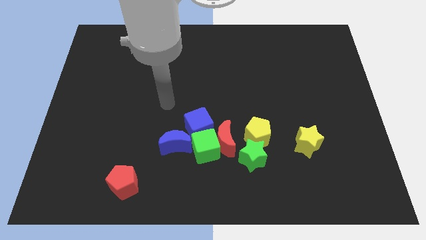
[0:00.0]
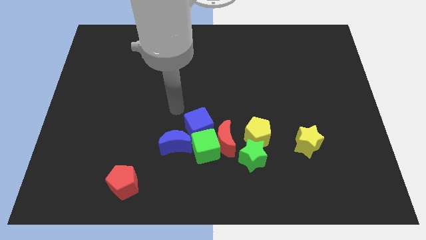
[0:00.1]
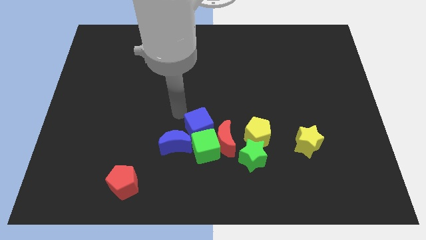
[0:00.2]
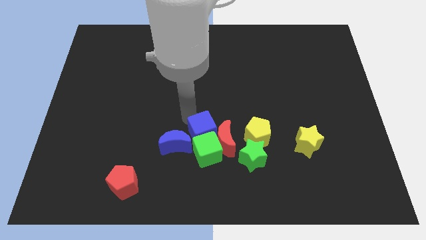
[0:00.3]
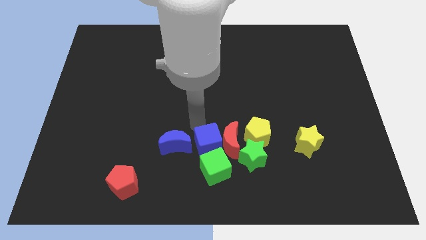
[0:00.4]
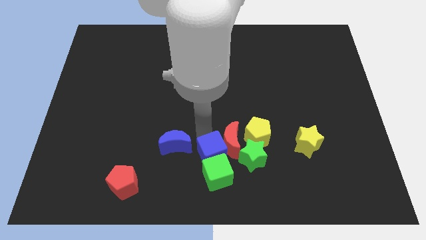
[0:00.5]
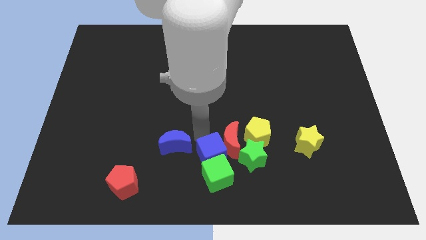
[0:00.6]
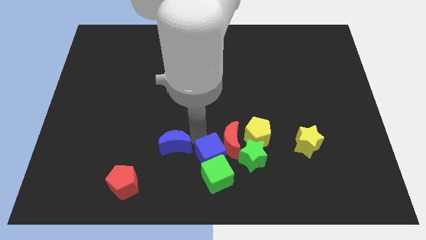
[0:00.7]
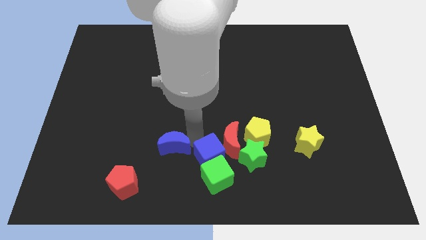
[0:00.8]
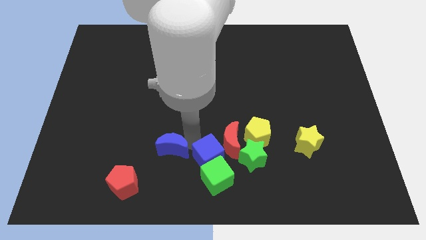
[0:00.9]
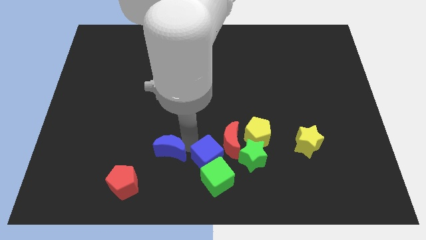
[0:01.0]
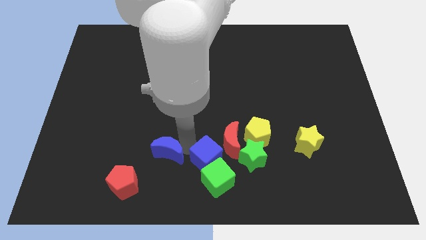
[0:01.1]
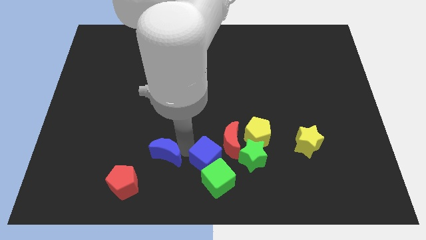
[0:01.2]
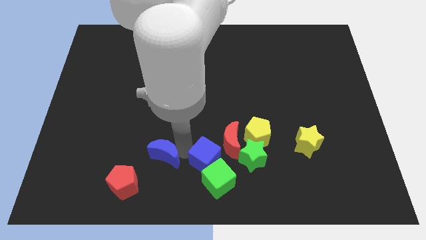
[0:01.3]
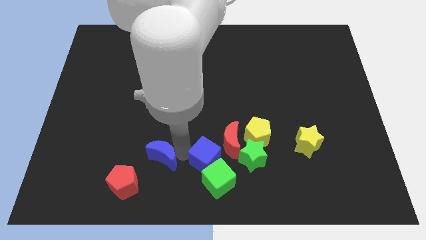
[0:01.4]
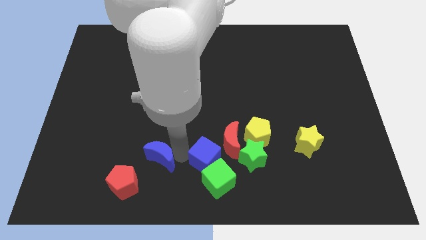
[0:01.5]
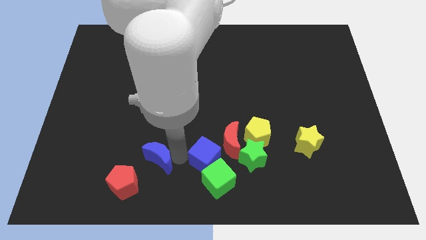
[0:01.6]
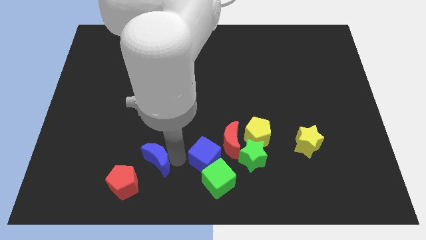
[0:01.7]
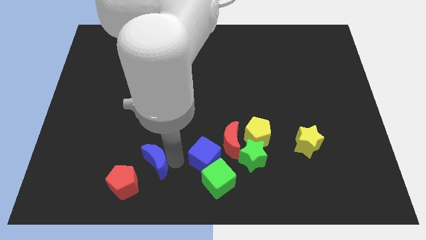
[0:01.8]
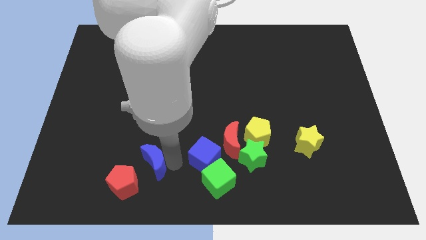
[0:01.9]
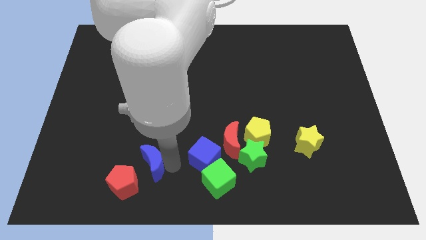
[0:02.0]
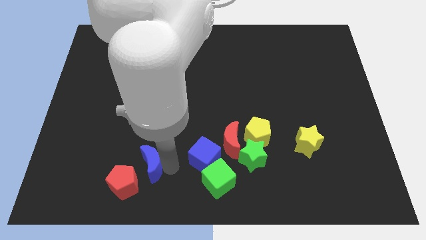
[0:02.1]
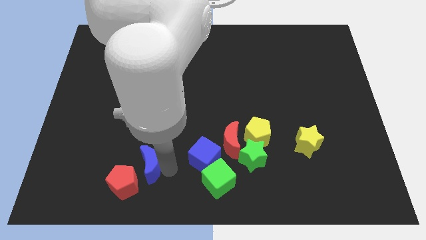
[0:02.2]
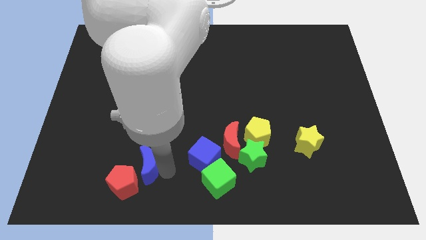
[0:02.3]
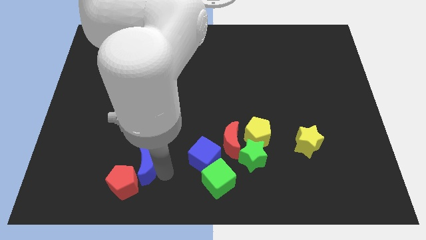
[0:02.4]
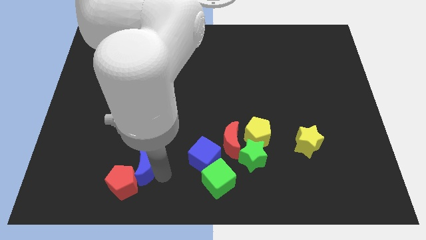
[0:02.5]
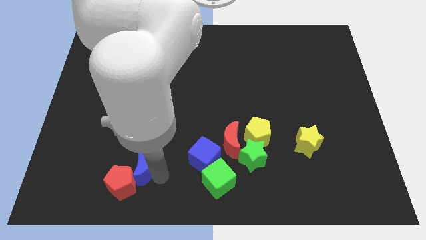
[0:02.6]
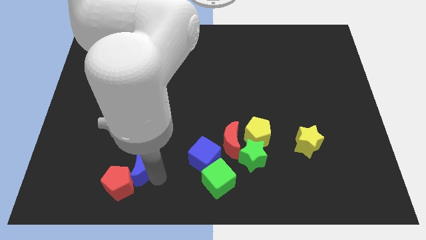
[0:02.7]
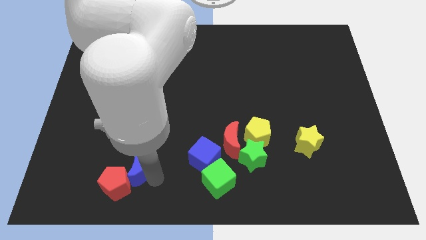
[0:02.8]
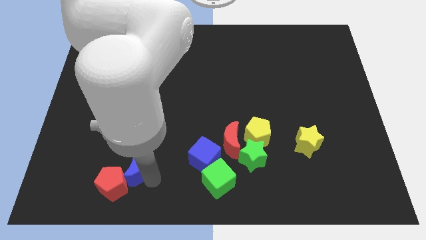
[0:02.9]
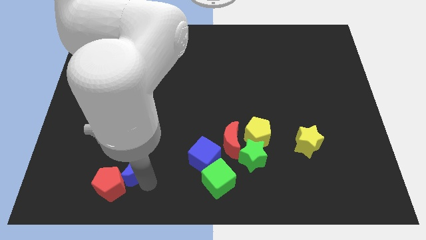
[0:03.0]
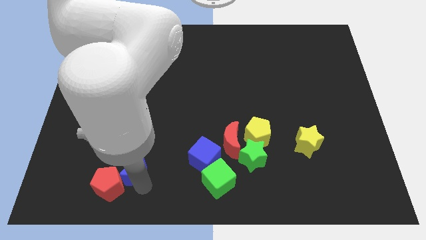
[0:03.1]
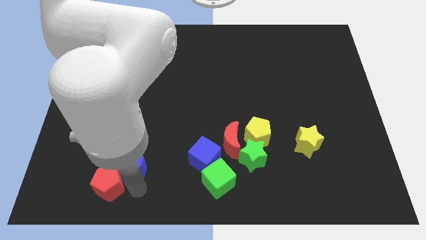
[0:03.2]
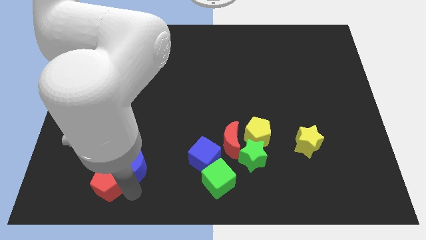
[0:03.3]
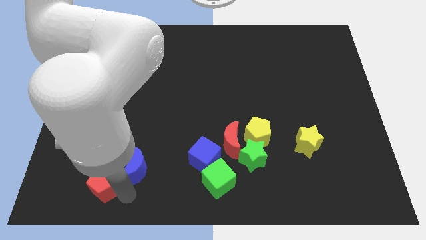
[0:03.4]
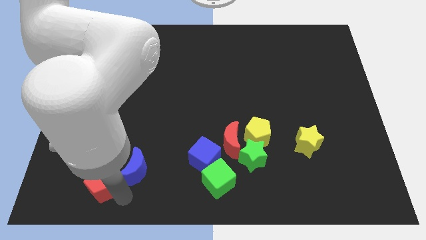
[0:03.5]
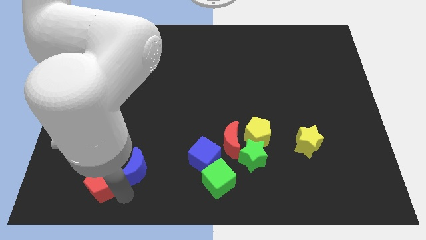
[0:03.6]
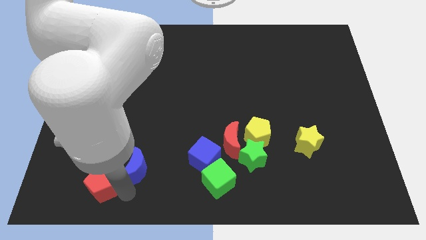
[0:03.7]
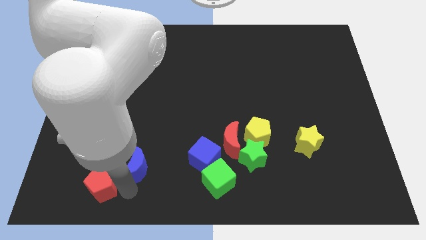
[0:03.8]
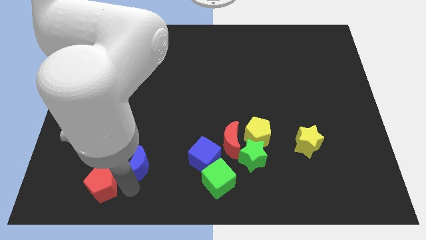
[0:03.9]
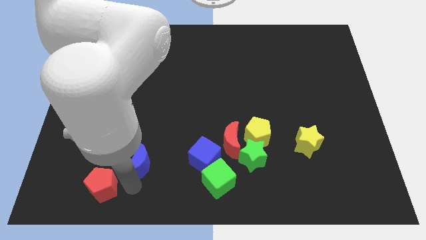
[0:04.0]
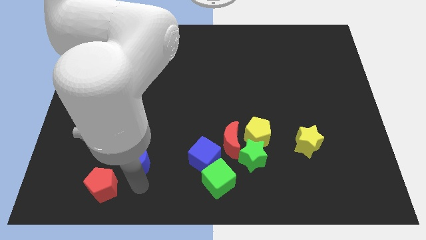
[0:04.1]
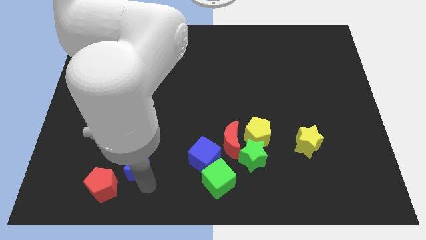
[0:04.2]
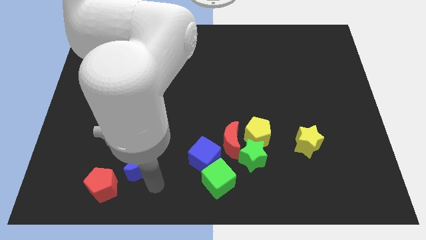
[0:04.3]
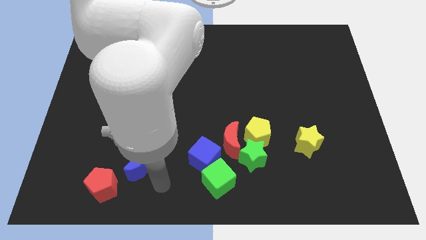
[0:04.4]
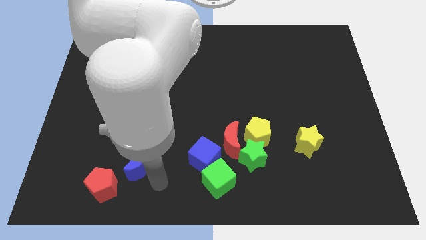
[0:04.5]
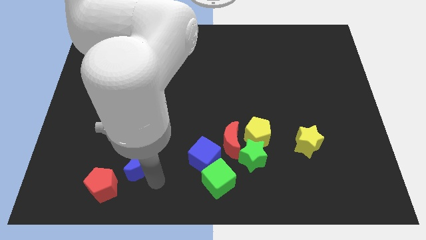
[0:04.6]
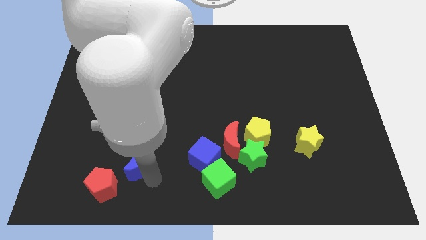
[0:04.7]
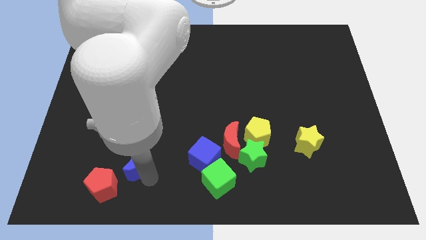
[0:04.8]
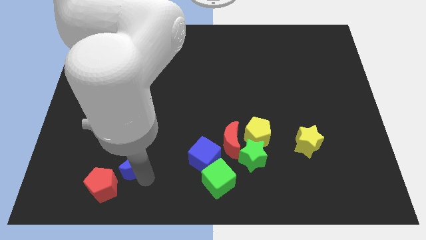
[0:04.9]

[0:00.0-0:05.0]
move the blue moon slightly left

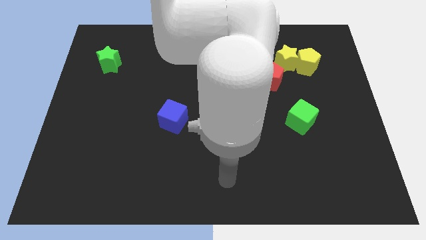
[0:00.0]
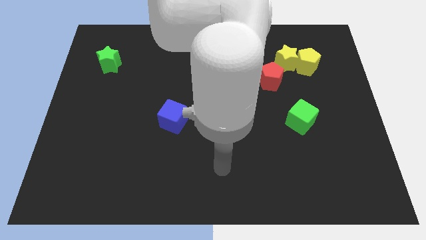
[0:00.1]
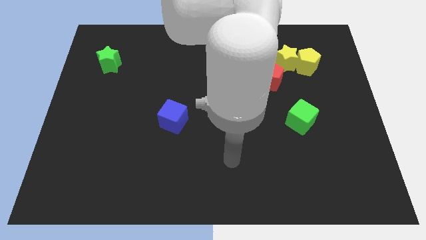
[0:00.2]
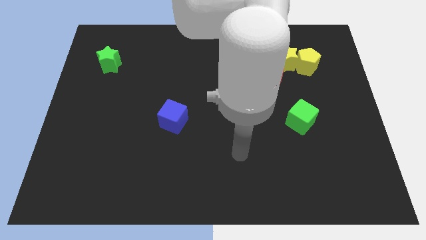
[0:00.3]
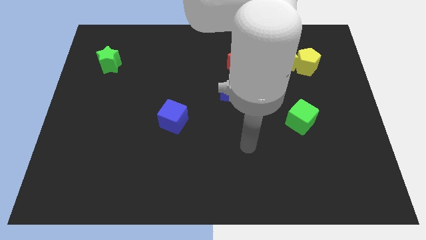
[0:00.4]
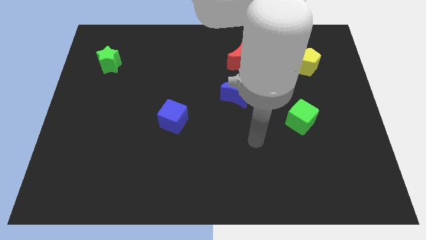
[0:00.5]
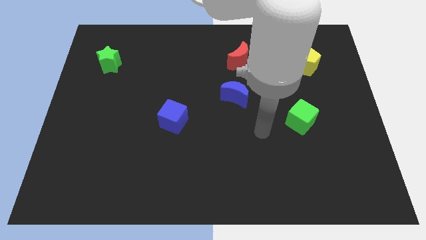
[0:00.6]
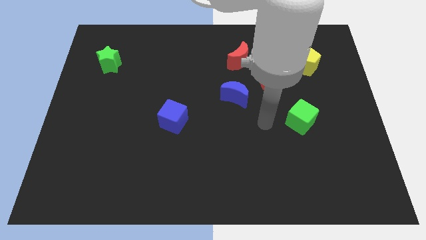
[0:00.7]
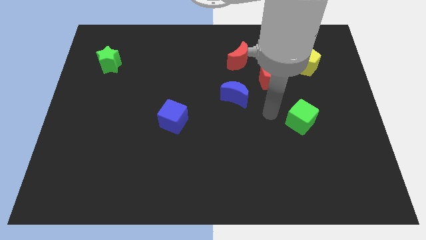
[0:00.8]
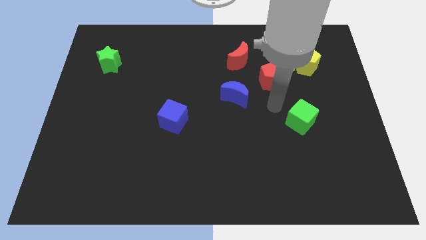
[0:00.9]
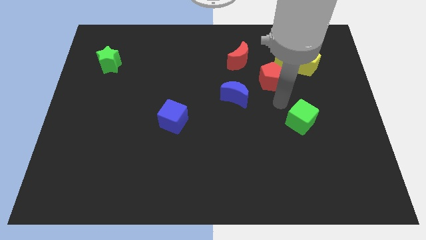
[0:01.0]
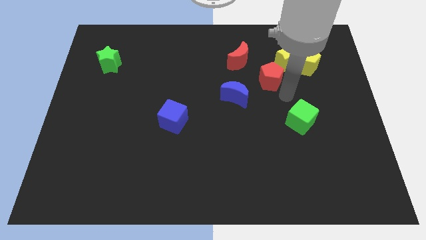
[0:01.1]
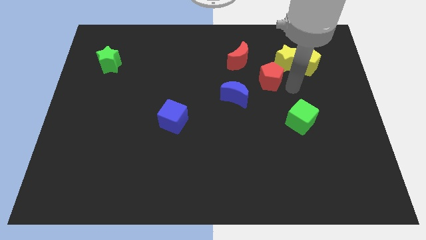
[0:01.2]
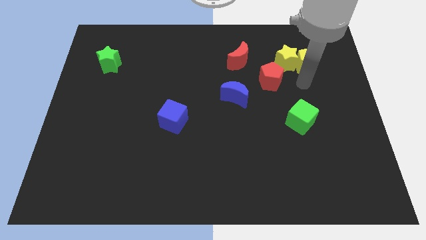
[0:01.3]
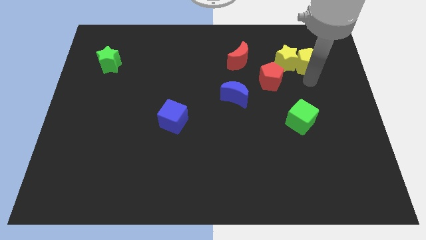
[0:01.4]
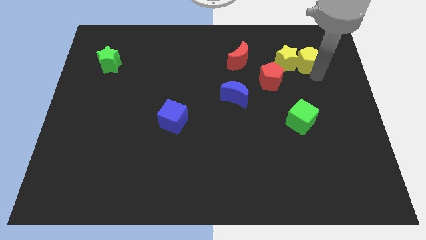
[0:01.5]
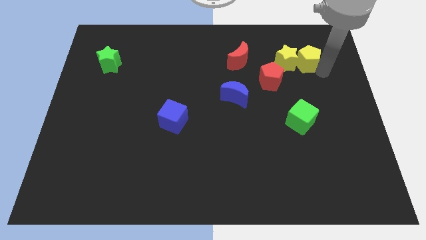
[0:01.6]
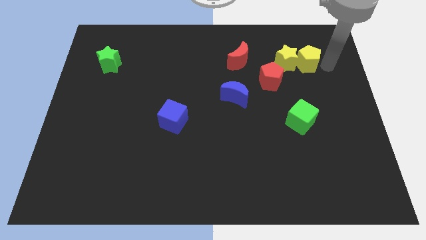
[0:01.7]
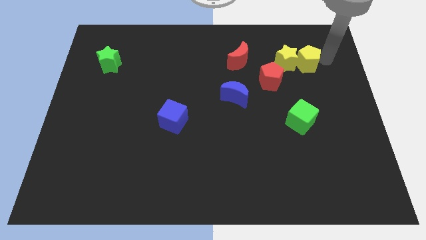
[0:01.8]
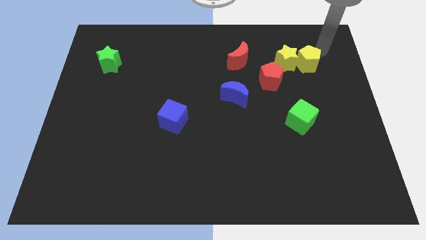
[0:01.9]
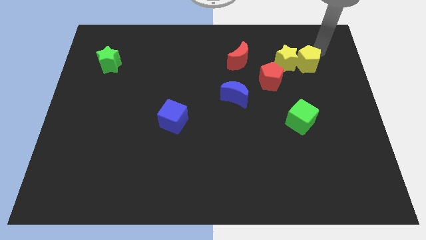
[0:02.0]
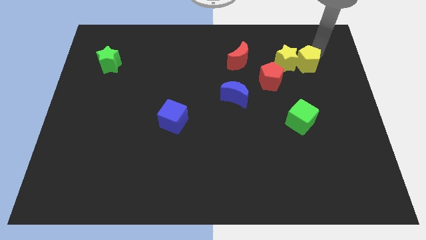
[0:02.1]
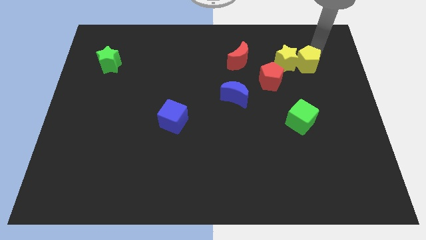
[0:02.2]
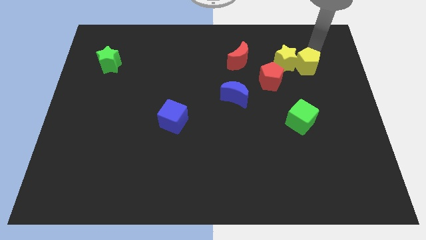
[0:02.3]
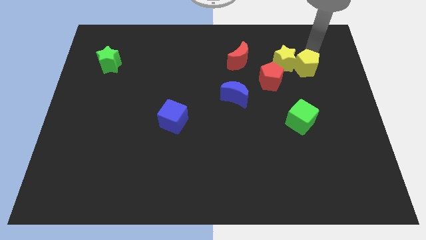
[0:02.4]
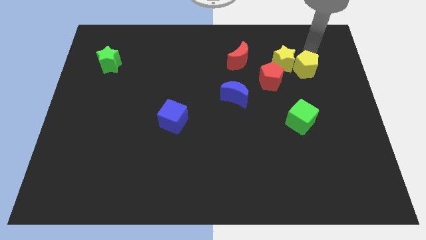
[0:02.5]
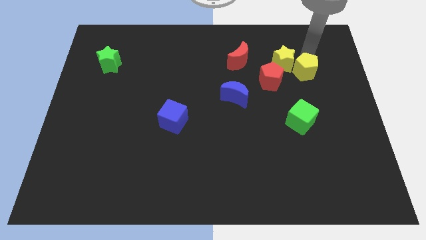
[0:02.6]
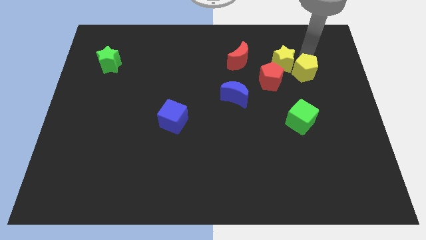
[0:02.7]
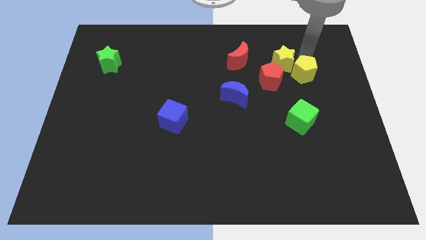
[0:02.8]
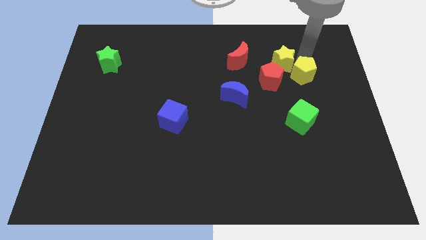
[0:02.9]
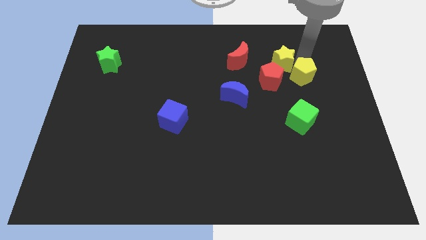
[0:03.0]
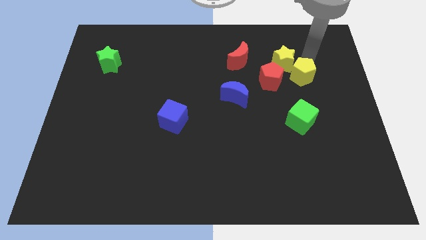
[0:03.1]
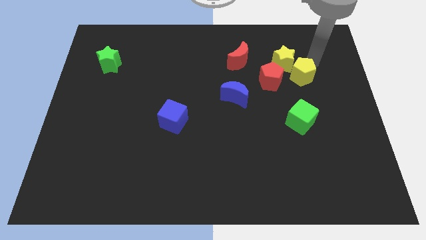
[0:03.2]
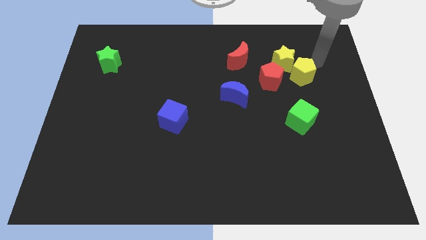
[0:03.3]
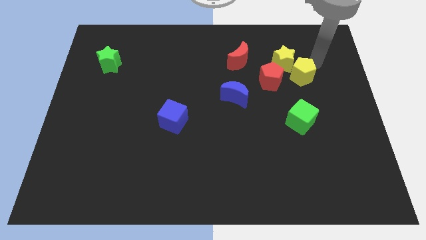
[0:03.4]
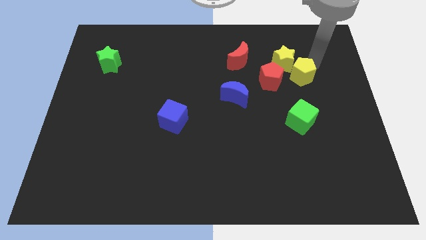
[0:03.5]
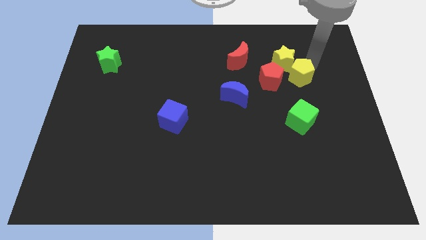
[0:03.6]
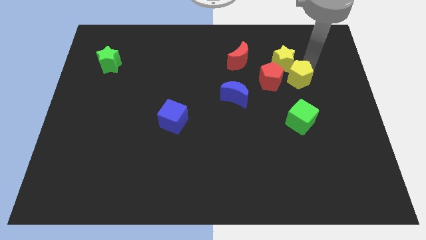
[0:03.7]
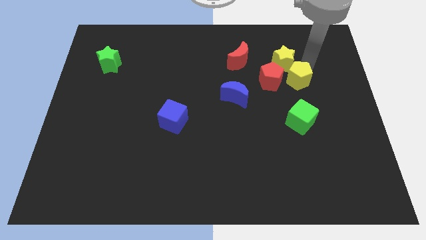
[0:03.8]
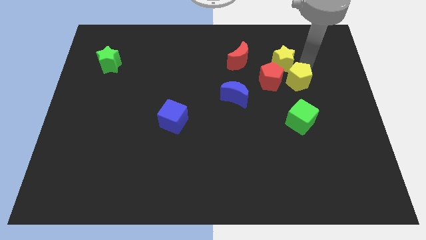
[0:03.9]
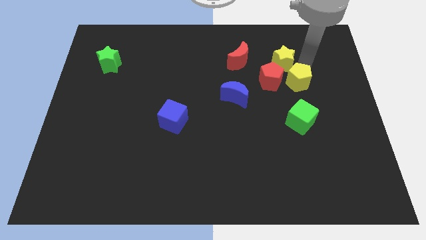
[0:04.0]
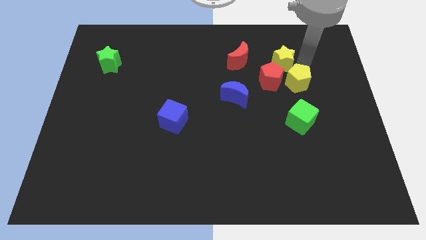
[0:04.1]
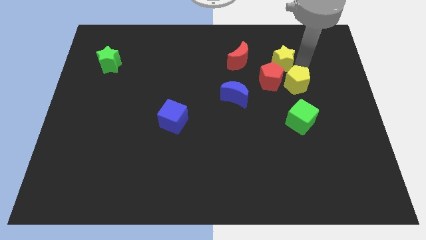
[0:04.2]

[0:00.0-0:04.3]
slide the yellow pentagon downwards and to the left a little bit
